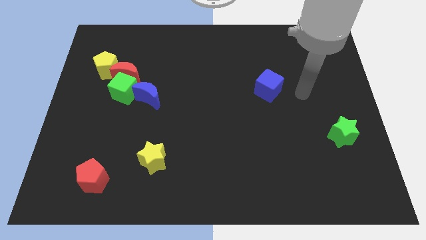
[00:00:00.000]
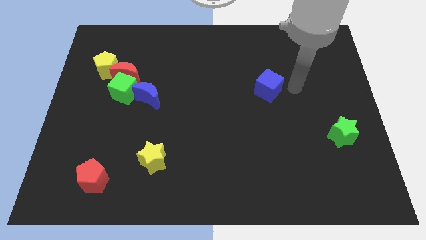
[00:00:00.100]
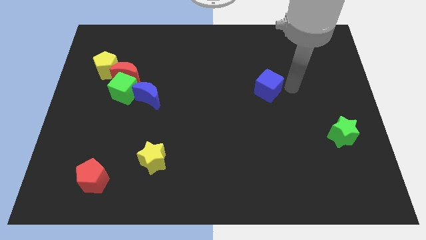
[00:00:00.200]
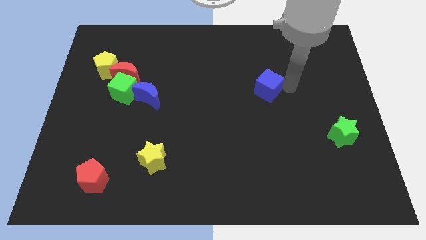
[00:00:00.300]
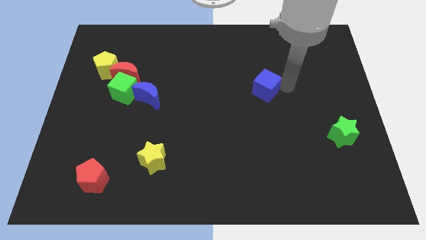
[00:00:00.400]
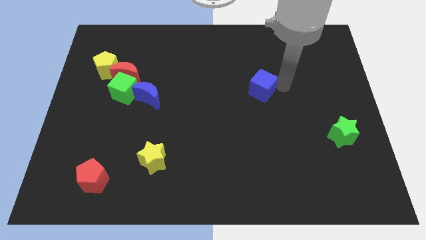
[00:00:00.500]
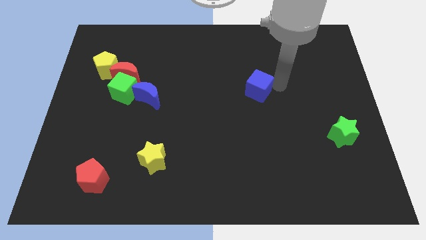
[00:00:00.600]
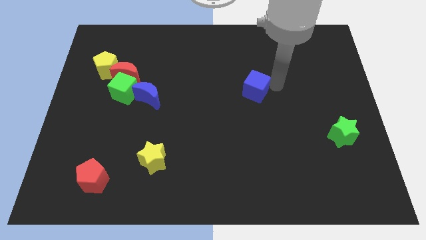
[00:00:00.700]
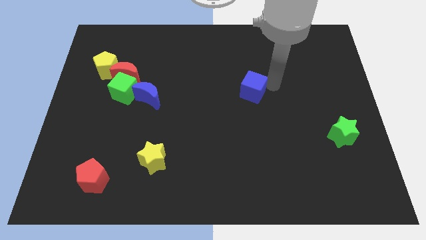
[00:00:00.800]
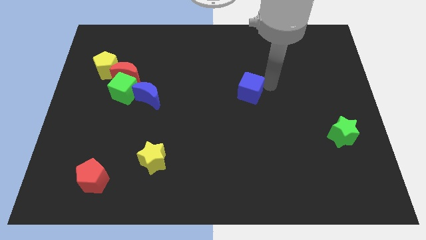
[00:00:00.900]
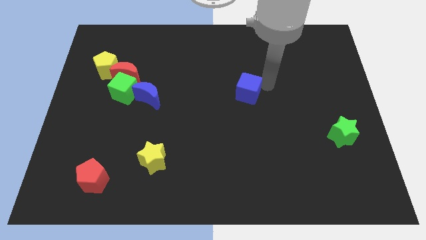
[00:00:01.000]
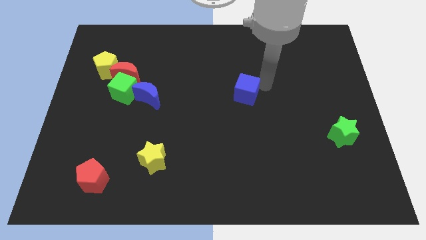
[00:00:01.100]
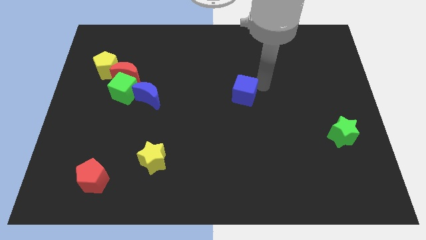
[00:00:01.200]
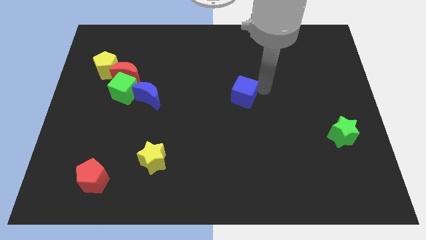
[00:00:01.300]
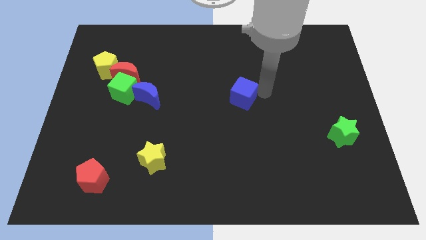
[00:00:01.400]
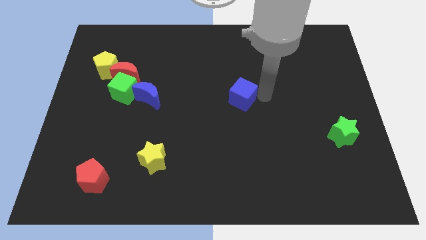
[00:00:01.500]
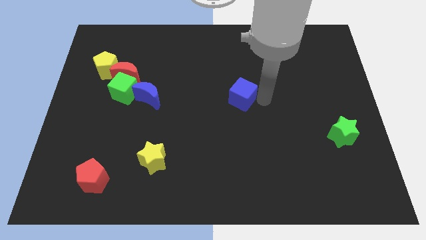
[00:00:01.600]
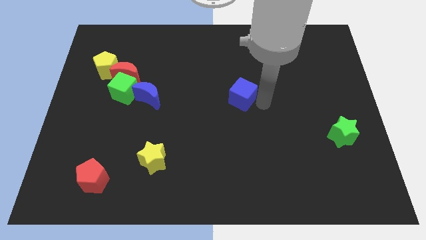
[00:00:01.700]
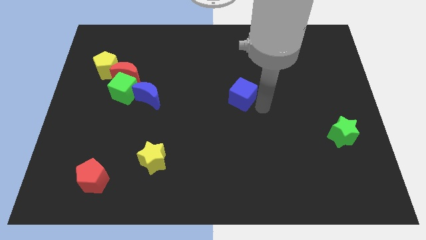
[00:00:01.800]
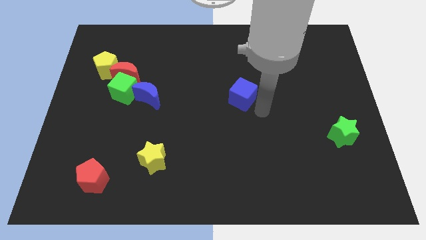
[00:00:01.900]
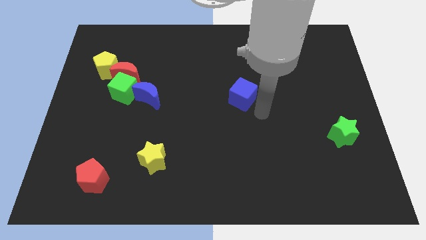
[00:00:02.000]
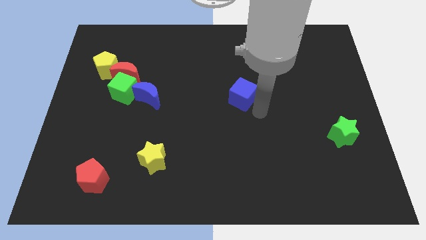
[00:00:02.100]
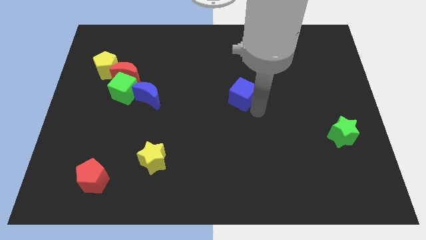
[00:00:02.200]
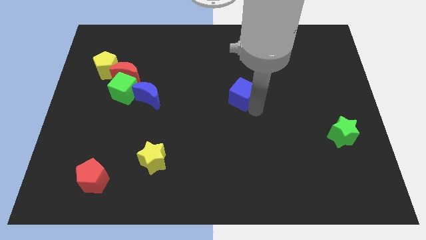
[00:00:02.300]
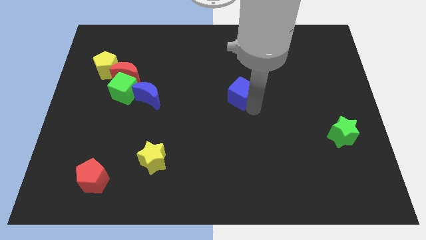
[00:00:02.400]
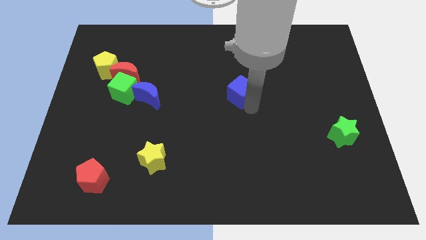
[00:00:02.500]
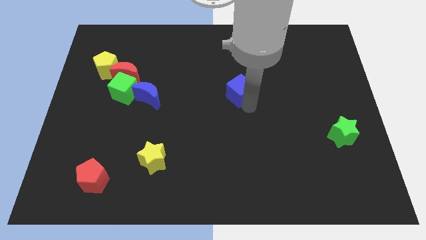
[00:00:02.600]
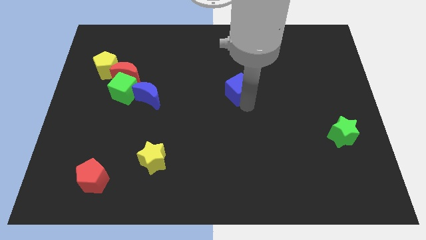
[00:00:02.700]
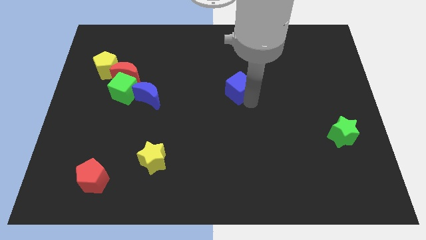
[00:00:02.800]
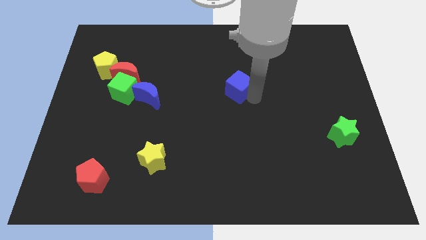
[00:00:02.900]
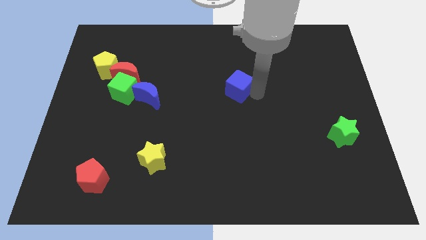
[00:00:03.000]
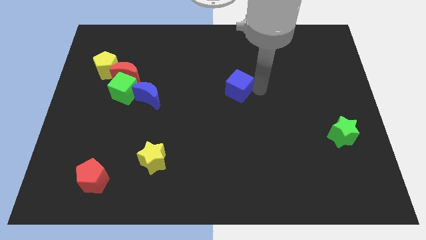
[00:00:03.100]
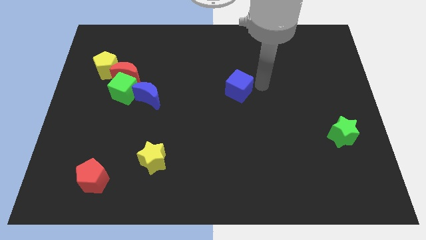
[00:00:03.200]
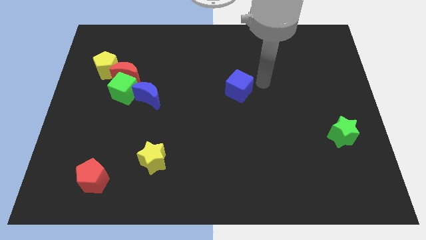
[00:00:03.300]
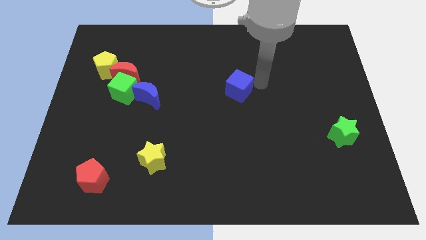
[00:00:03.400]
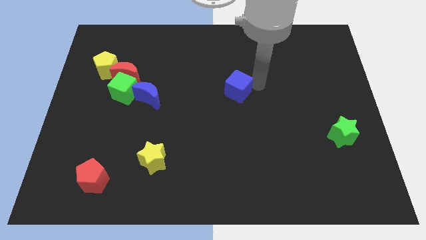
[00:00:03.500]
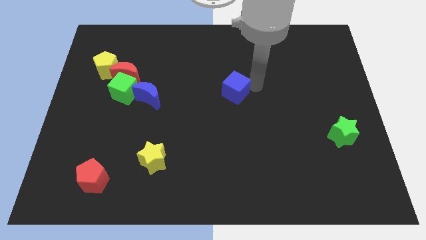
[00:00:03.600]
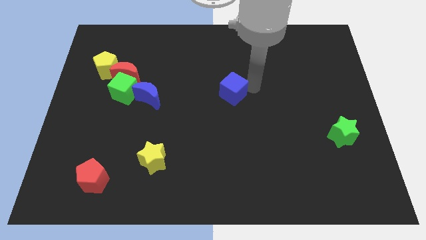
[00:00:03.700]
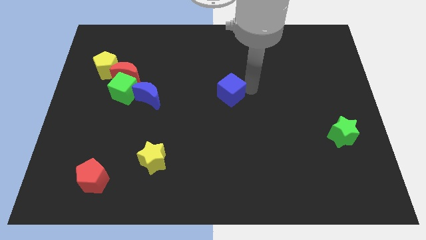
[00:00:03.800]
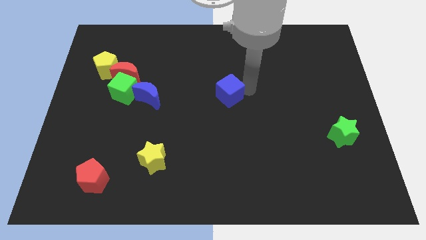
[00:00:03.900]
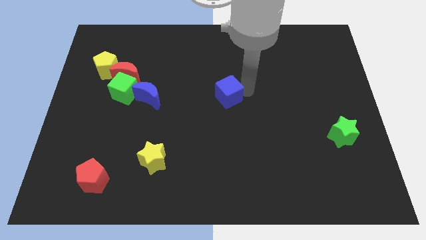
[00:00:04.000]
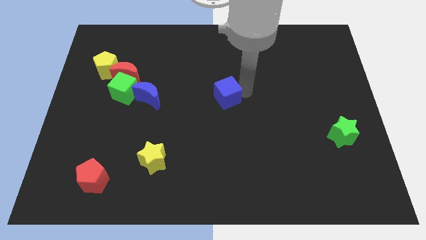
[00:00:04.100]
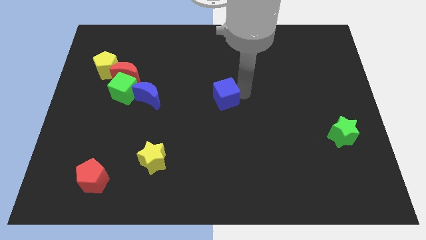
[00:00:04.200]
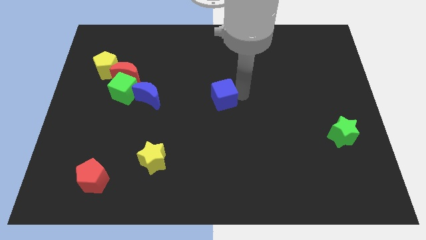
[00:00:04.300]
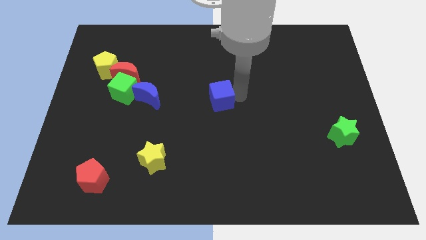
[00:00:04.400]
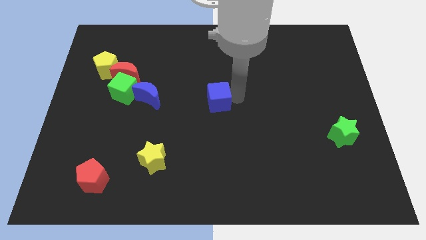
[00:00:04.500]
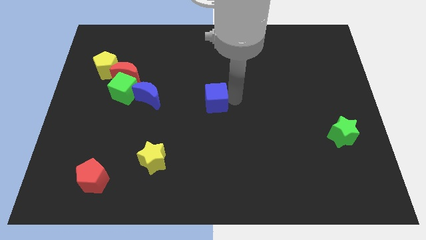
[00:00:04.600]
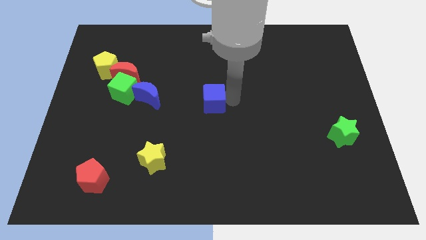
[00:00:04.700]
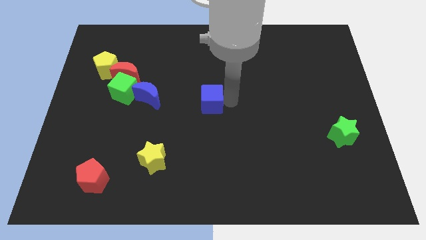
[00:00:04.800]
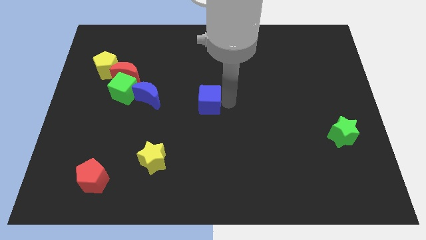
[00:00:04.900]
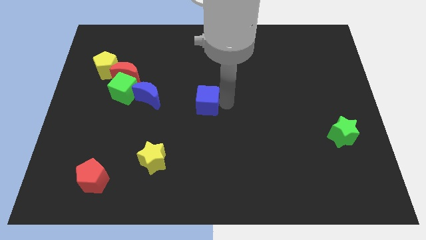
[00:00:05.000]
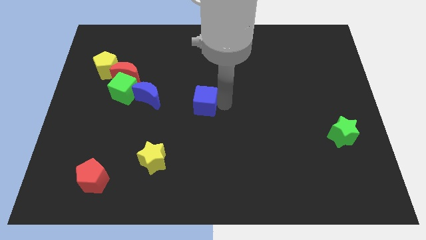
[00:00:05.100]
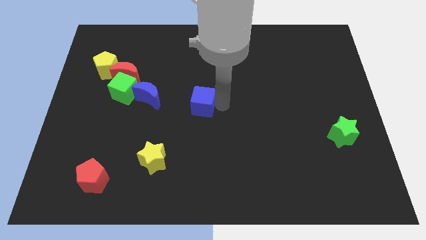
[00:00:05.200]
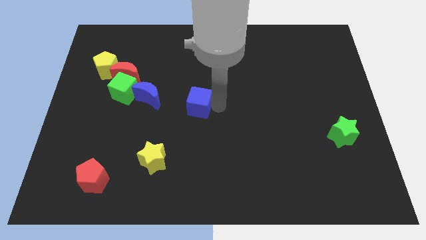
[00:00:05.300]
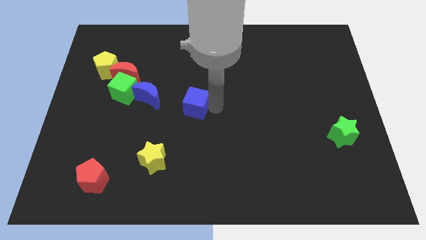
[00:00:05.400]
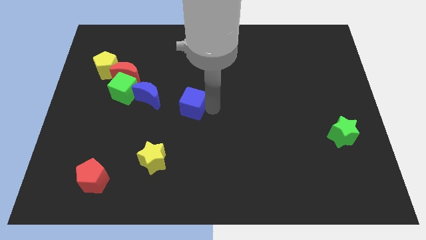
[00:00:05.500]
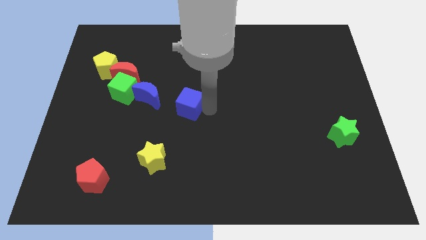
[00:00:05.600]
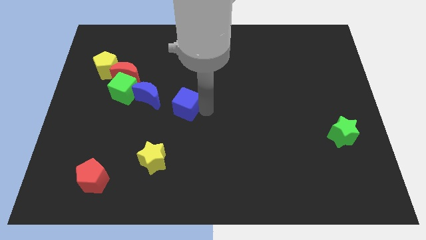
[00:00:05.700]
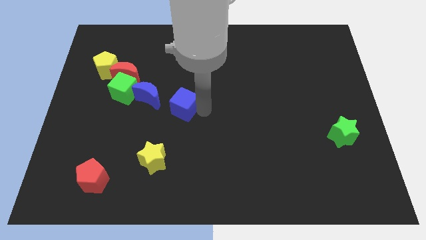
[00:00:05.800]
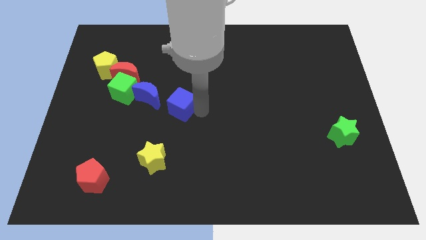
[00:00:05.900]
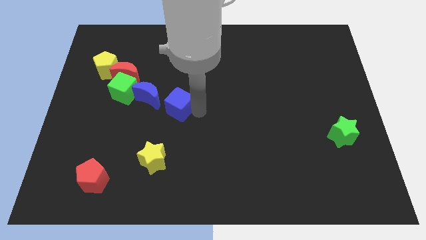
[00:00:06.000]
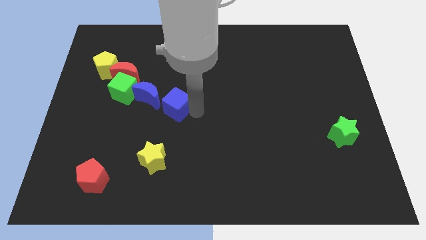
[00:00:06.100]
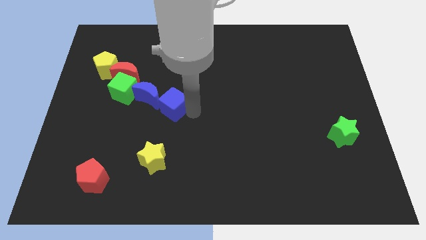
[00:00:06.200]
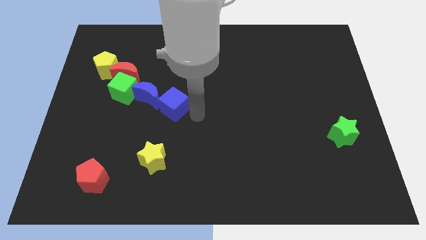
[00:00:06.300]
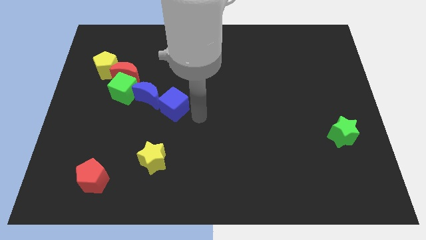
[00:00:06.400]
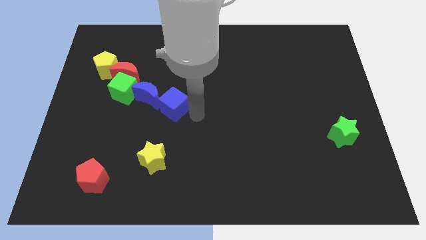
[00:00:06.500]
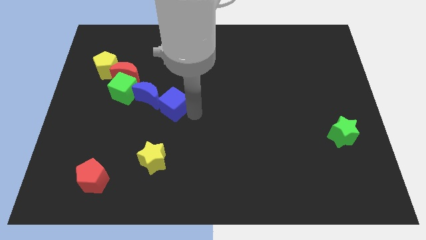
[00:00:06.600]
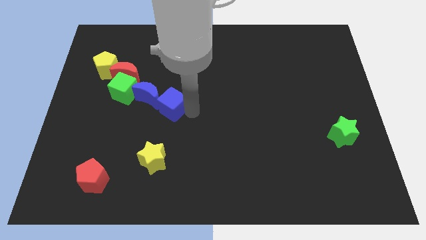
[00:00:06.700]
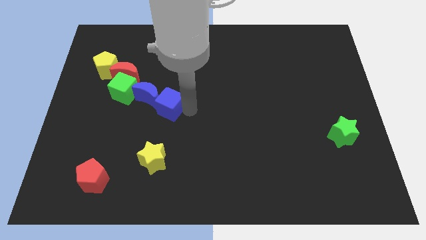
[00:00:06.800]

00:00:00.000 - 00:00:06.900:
move the blue cube close to the blue moon
